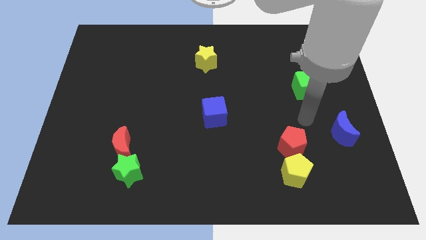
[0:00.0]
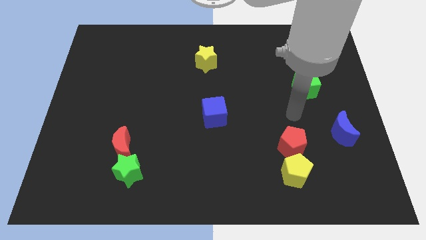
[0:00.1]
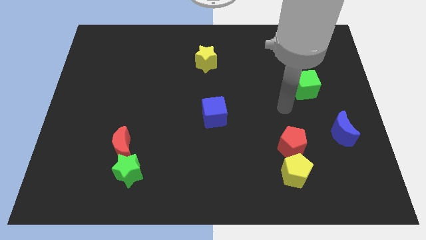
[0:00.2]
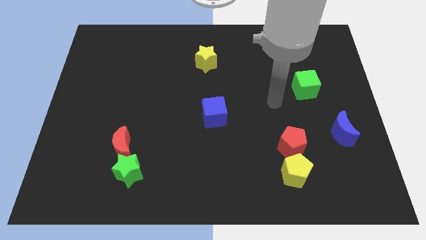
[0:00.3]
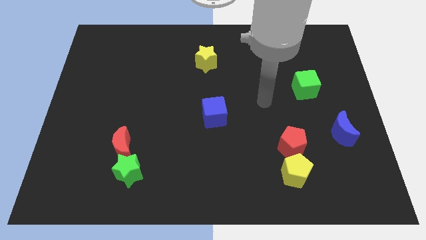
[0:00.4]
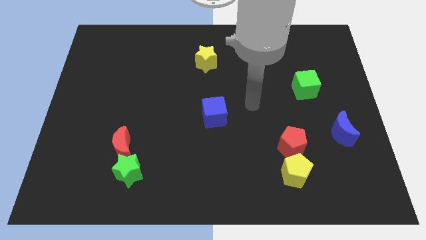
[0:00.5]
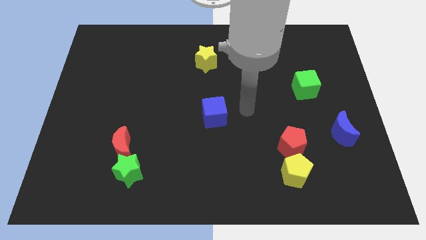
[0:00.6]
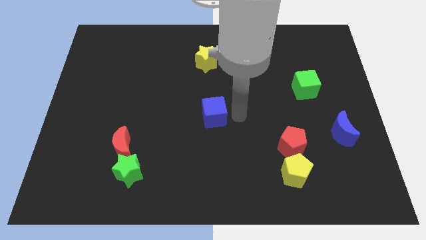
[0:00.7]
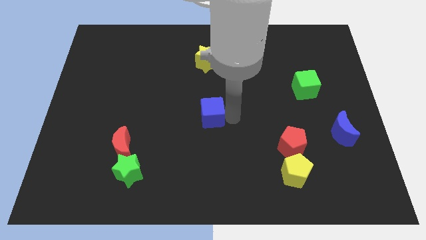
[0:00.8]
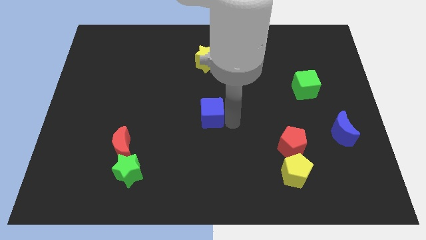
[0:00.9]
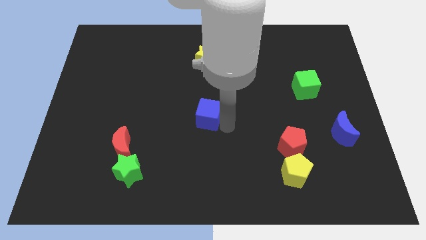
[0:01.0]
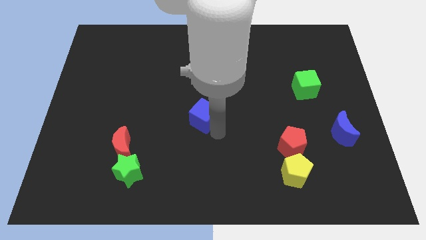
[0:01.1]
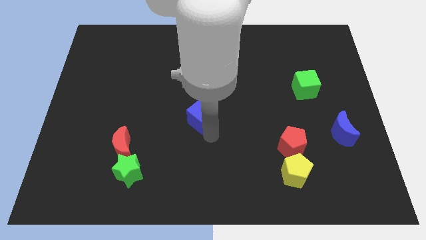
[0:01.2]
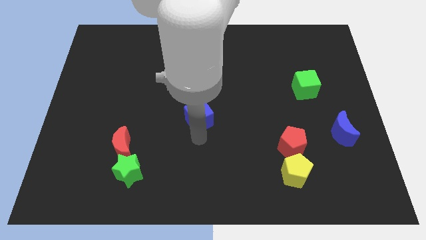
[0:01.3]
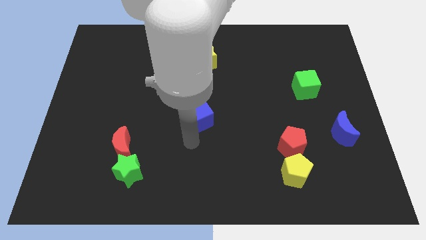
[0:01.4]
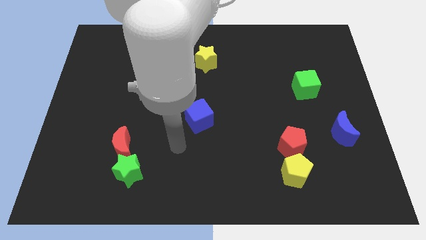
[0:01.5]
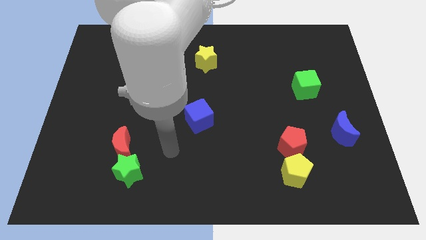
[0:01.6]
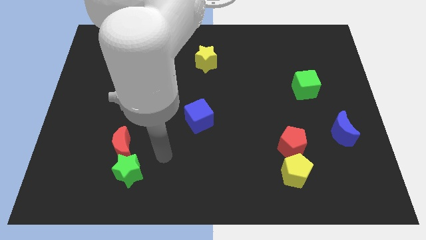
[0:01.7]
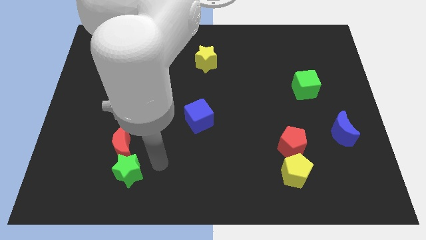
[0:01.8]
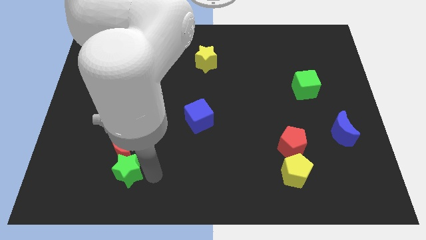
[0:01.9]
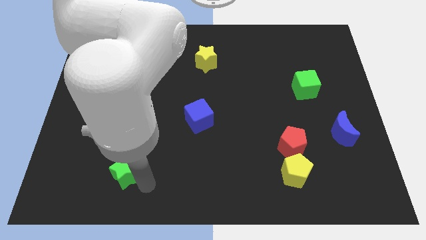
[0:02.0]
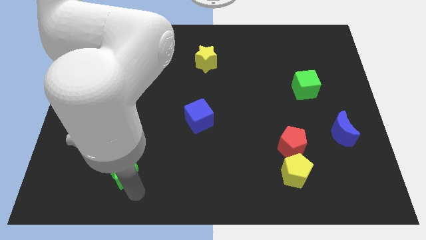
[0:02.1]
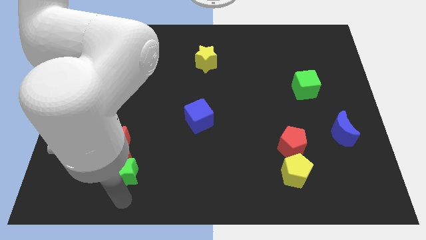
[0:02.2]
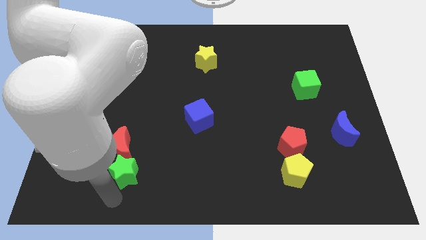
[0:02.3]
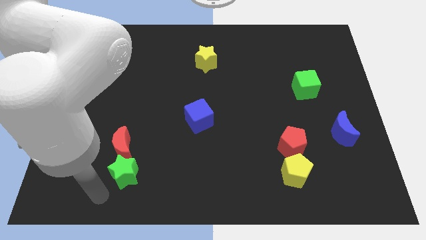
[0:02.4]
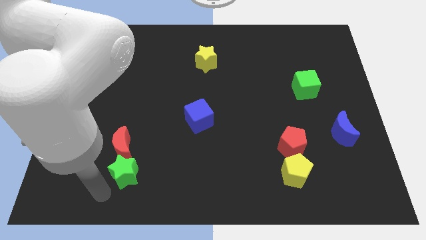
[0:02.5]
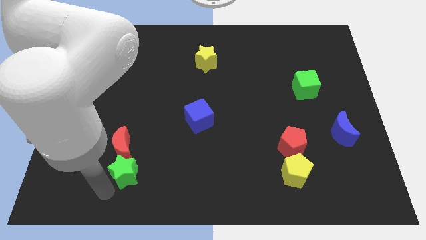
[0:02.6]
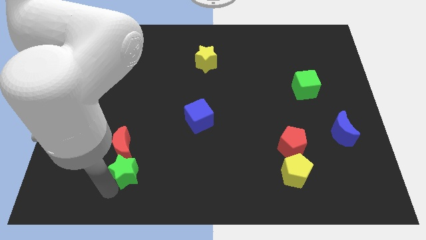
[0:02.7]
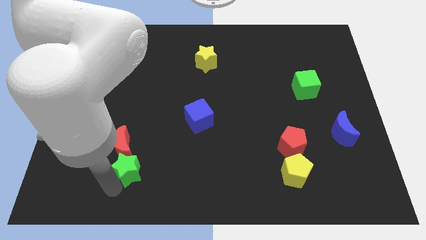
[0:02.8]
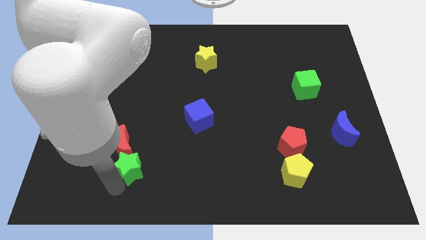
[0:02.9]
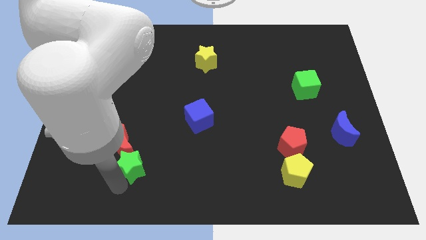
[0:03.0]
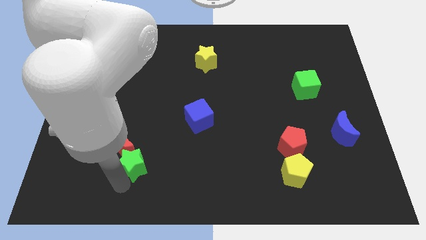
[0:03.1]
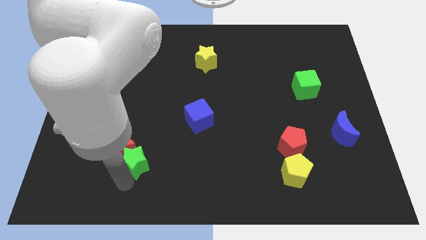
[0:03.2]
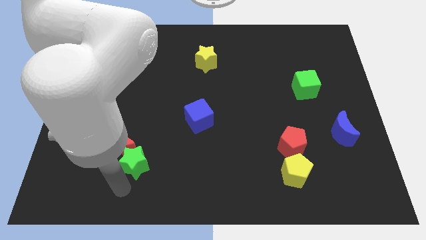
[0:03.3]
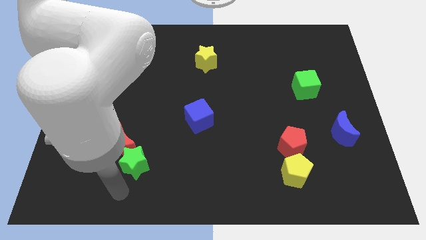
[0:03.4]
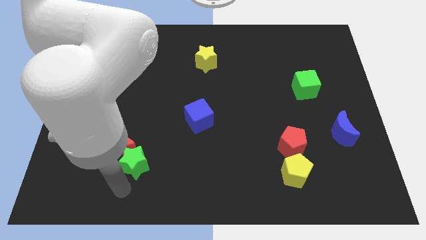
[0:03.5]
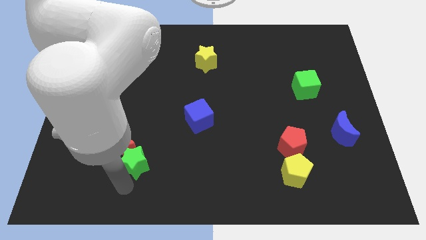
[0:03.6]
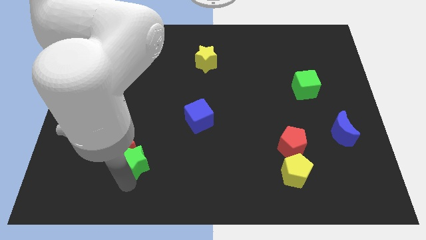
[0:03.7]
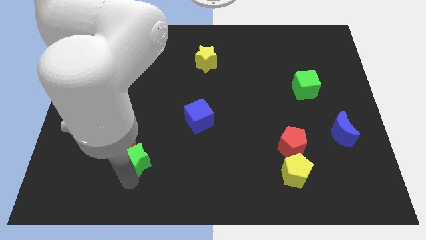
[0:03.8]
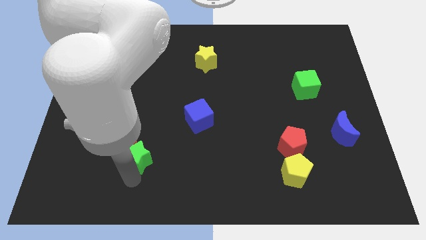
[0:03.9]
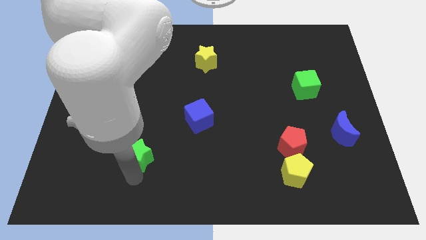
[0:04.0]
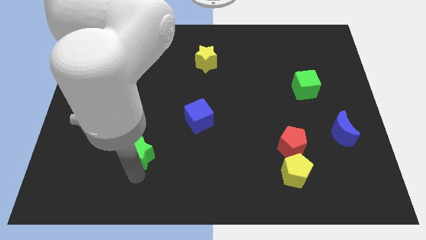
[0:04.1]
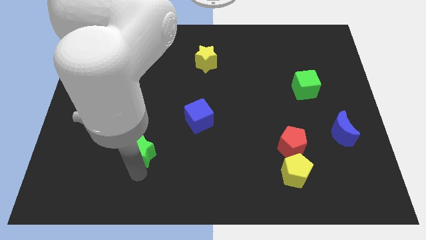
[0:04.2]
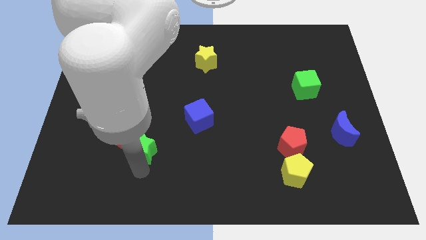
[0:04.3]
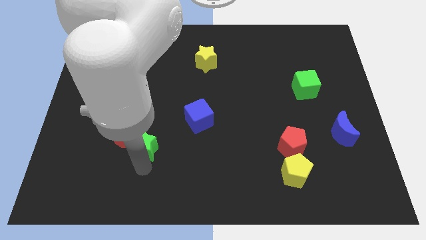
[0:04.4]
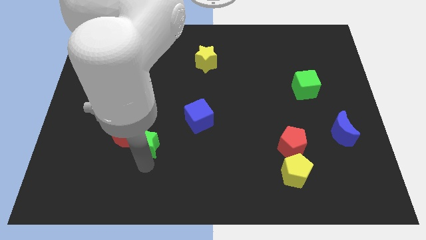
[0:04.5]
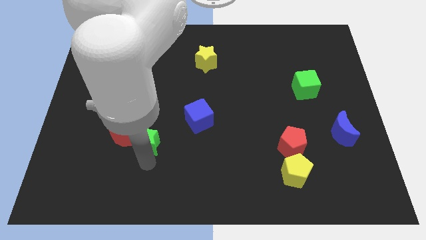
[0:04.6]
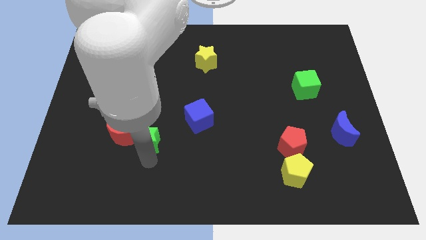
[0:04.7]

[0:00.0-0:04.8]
move the green star slightly up

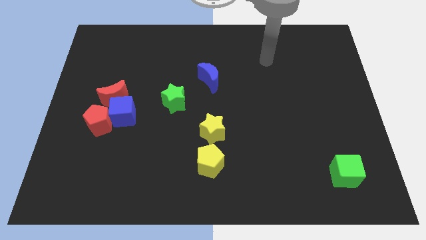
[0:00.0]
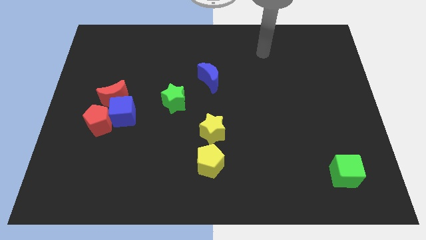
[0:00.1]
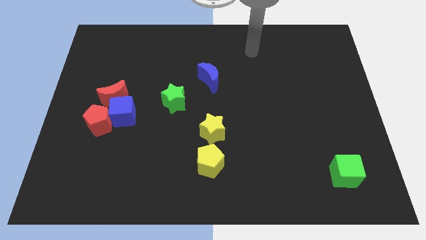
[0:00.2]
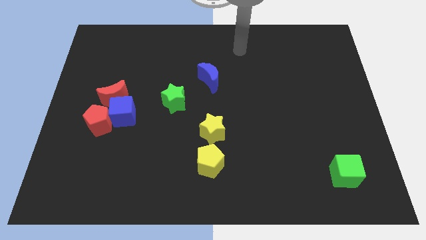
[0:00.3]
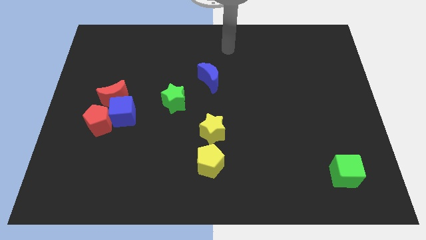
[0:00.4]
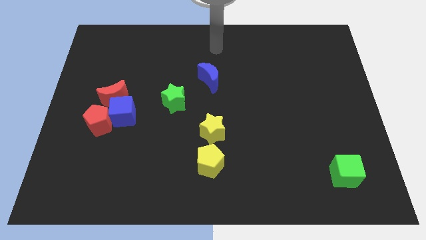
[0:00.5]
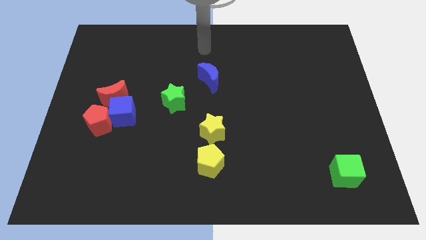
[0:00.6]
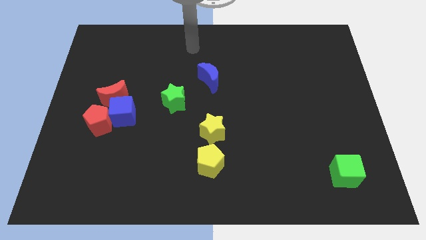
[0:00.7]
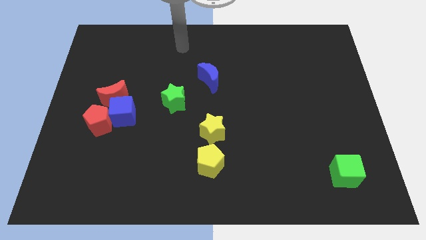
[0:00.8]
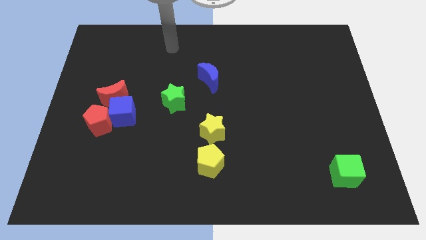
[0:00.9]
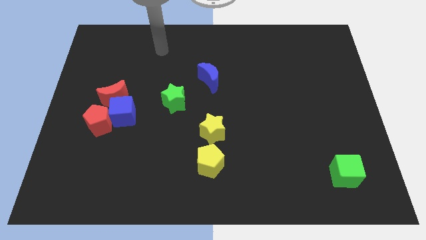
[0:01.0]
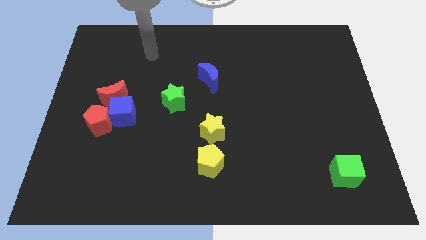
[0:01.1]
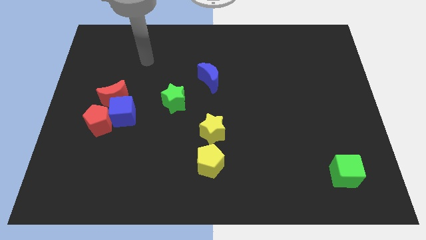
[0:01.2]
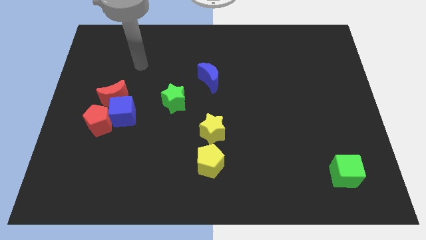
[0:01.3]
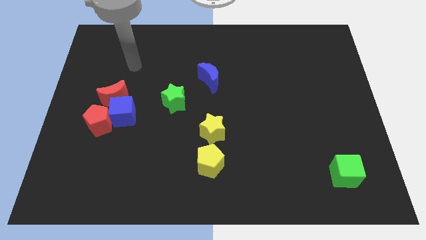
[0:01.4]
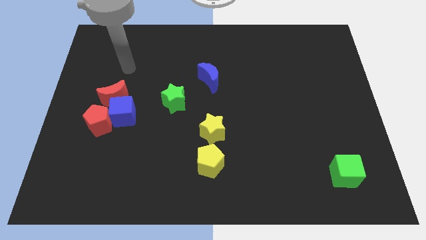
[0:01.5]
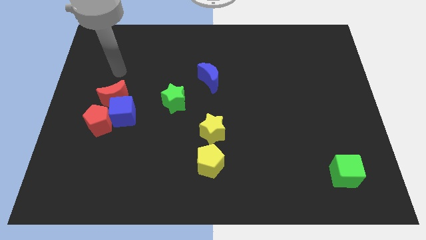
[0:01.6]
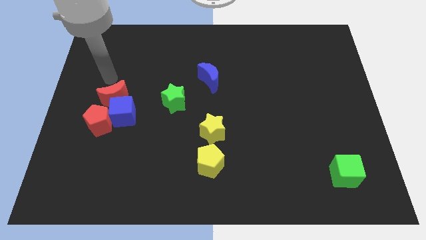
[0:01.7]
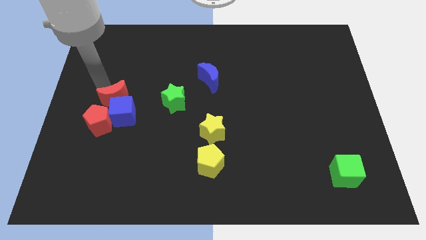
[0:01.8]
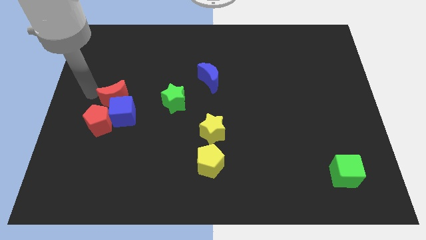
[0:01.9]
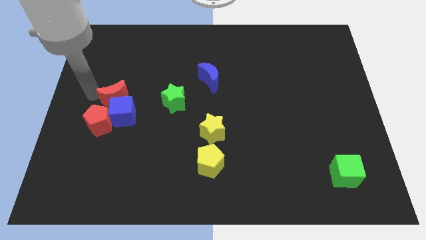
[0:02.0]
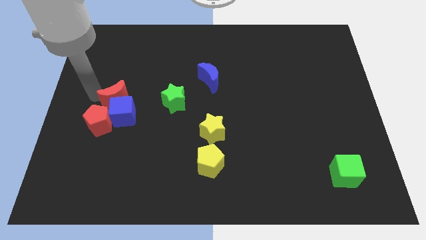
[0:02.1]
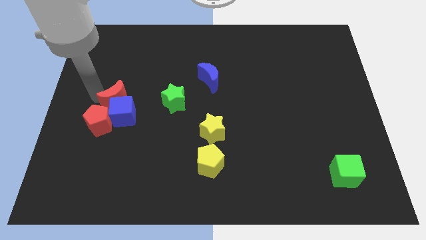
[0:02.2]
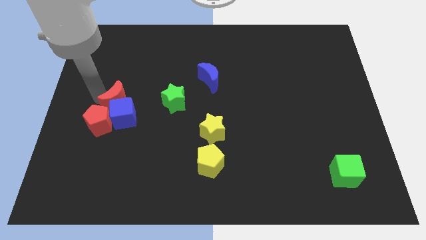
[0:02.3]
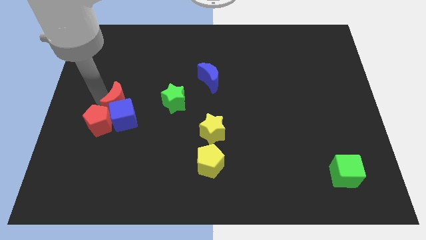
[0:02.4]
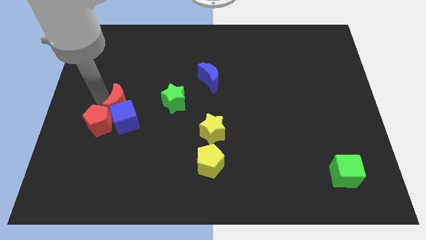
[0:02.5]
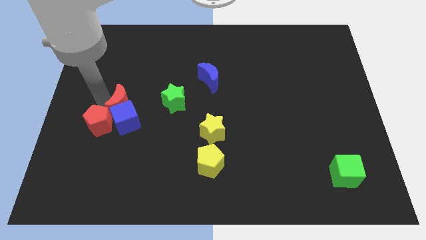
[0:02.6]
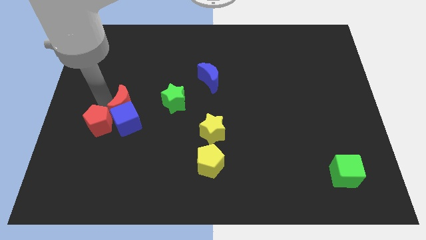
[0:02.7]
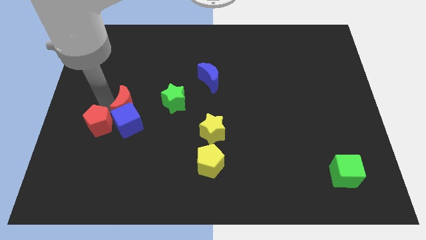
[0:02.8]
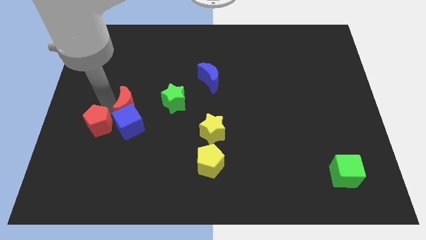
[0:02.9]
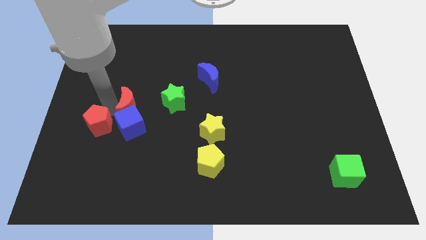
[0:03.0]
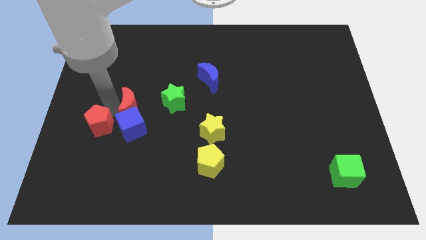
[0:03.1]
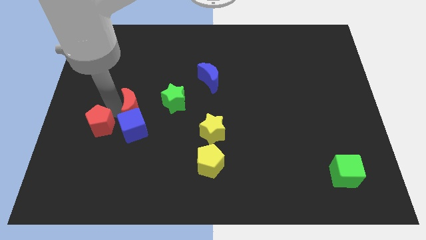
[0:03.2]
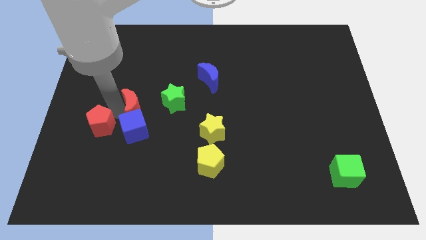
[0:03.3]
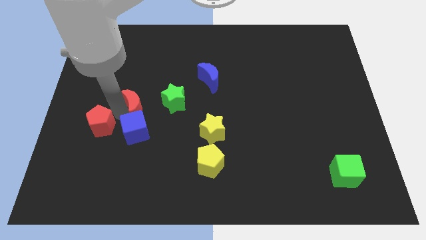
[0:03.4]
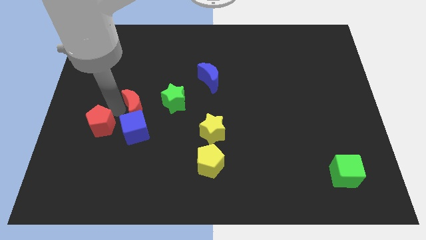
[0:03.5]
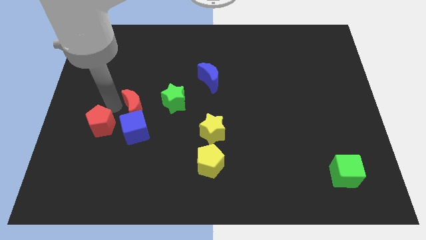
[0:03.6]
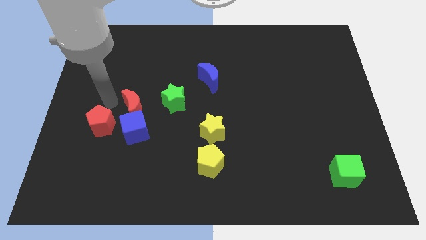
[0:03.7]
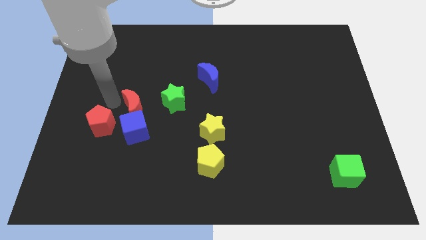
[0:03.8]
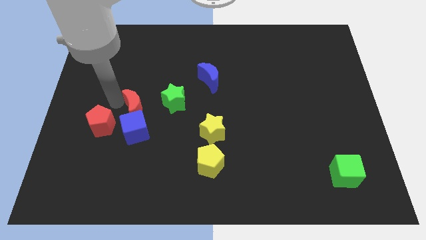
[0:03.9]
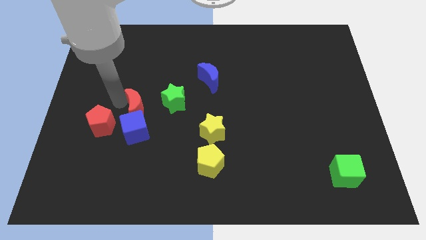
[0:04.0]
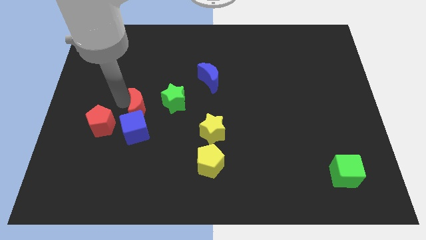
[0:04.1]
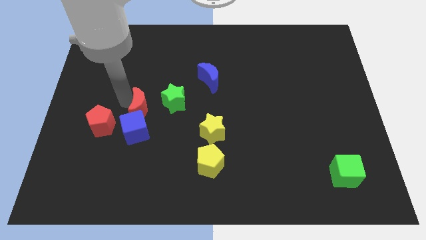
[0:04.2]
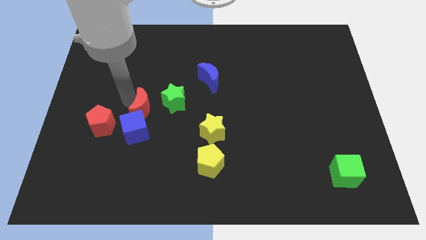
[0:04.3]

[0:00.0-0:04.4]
slide the red moon down and to the right a bit
